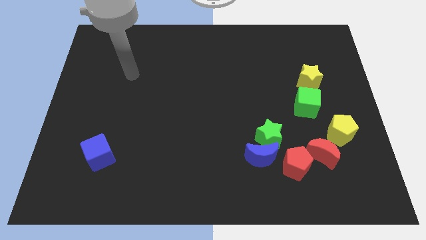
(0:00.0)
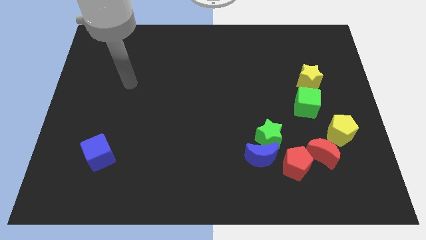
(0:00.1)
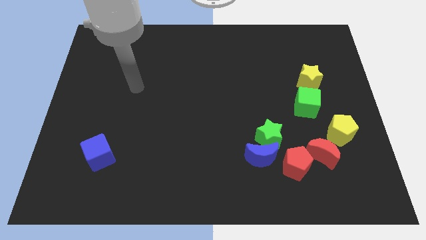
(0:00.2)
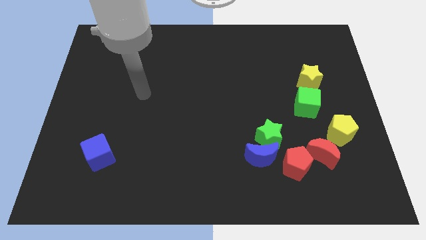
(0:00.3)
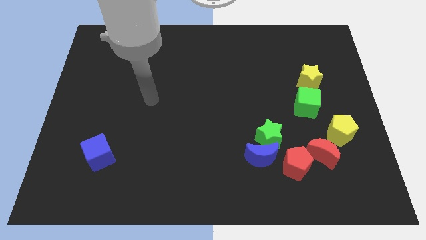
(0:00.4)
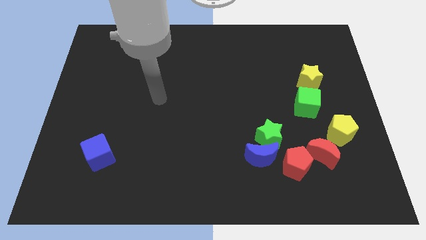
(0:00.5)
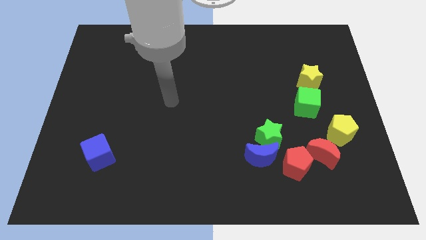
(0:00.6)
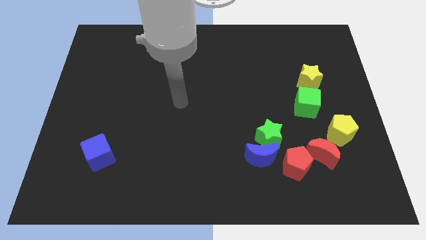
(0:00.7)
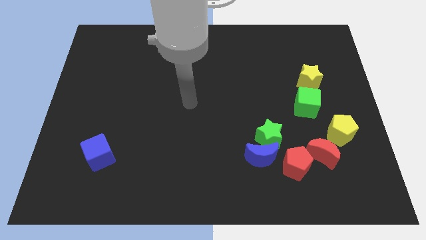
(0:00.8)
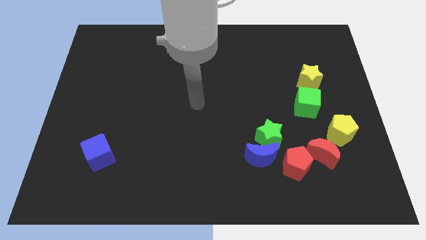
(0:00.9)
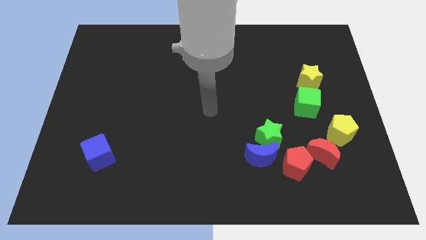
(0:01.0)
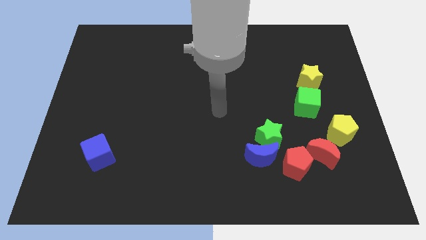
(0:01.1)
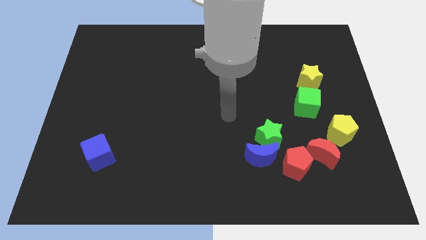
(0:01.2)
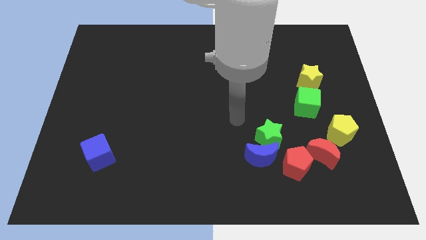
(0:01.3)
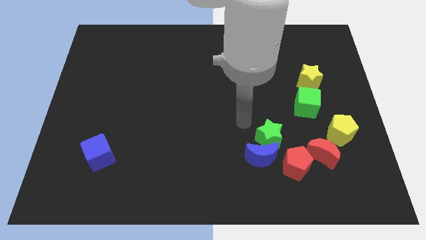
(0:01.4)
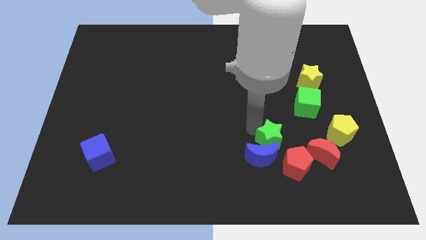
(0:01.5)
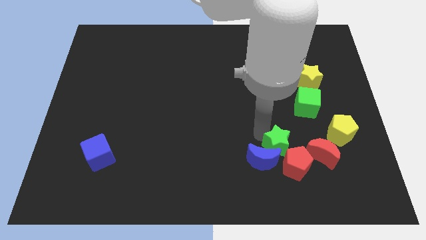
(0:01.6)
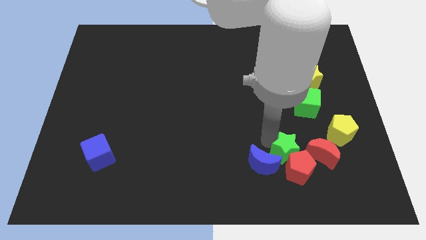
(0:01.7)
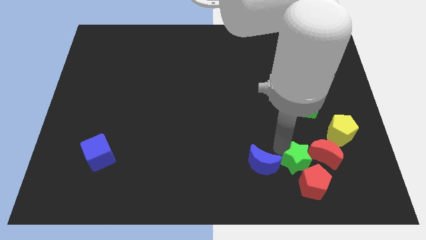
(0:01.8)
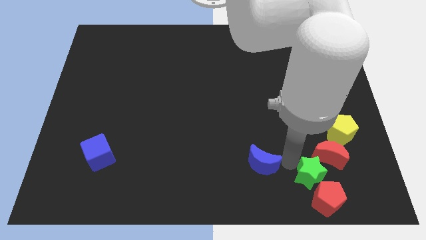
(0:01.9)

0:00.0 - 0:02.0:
move the blue moon away from the green star and red pentagon

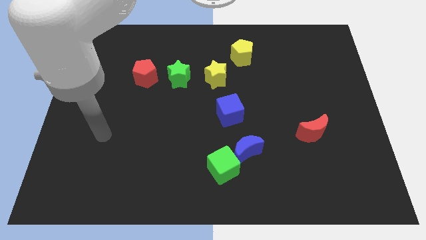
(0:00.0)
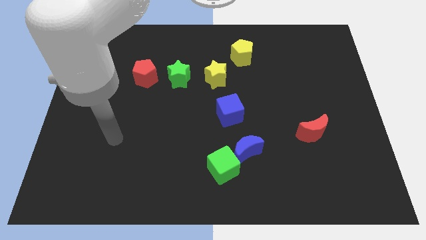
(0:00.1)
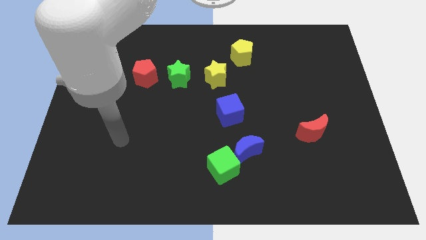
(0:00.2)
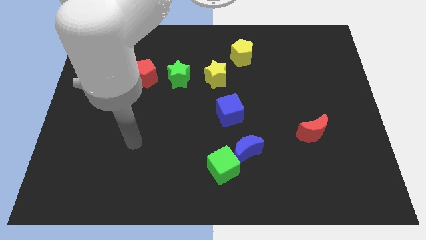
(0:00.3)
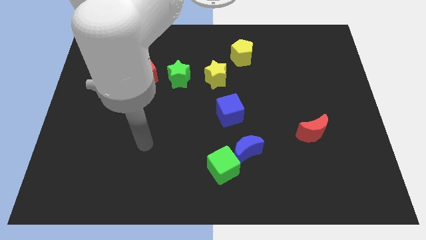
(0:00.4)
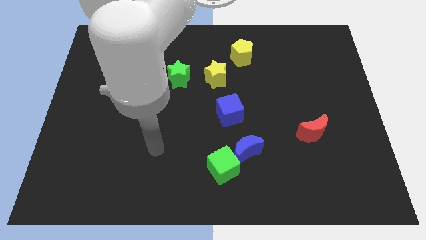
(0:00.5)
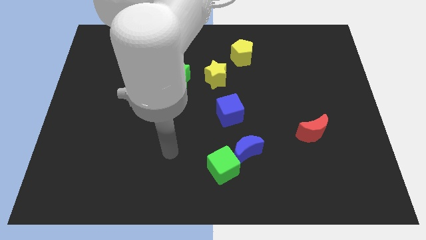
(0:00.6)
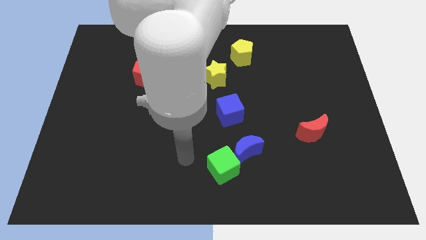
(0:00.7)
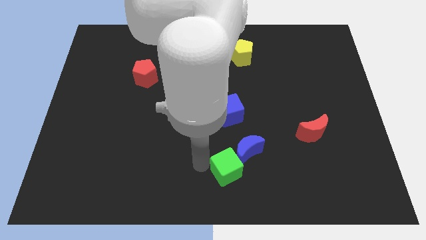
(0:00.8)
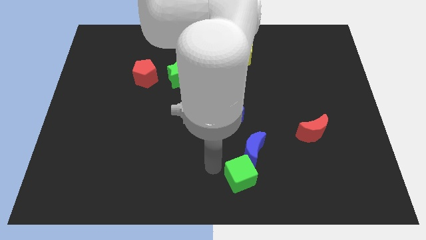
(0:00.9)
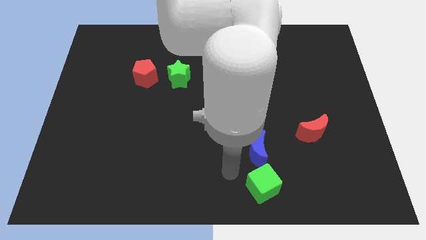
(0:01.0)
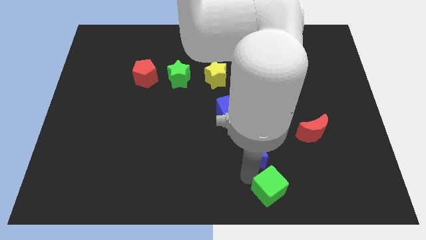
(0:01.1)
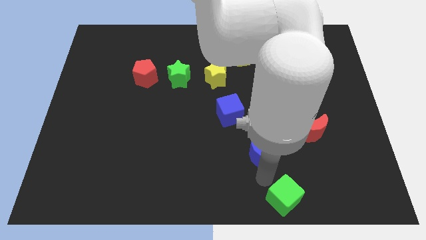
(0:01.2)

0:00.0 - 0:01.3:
separate the blue moon from the green cube

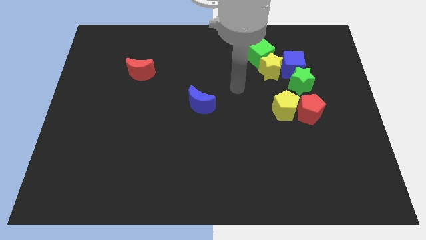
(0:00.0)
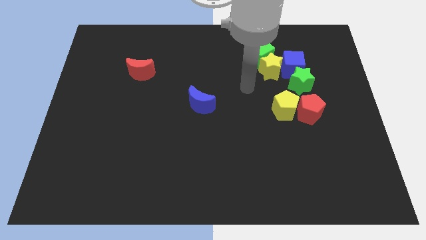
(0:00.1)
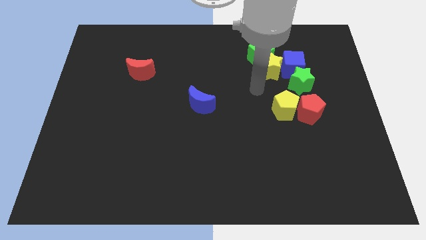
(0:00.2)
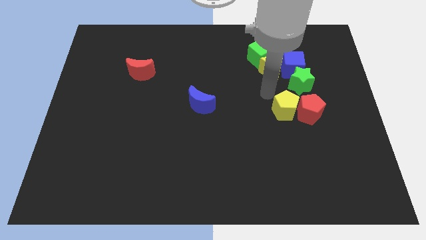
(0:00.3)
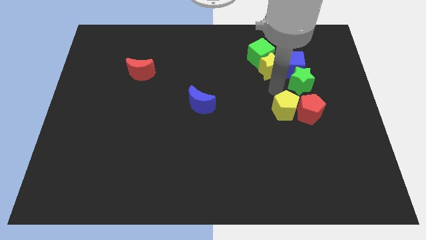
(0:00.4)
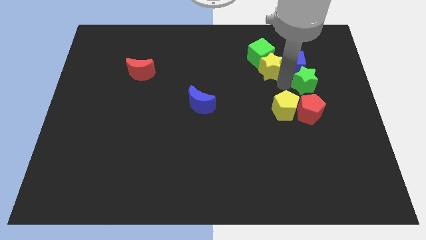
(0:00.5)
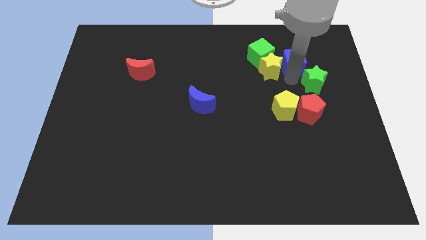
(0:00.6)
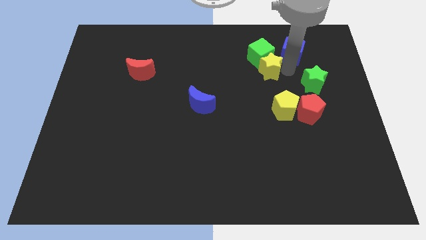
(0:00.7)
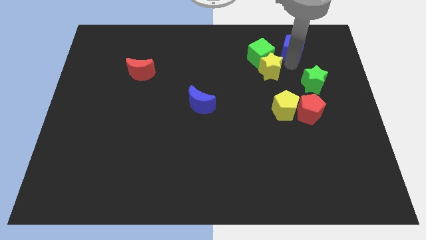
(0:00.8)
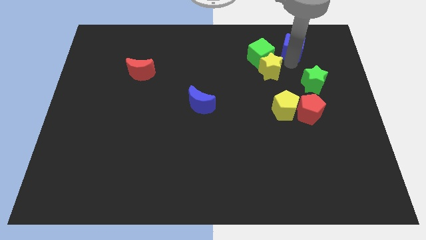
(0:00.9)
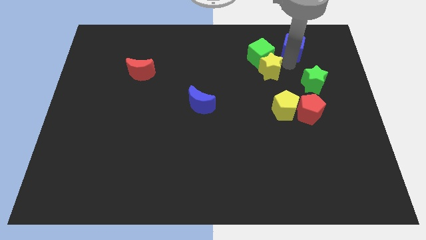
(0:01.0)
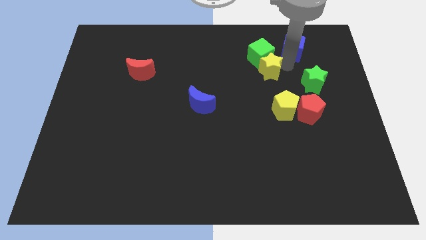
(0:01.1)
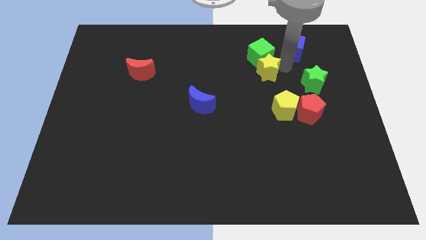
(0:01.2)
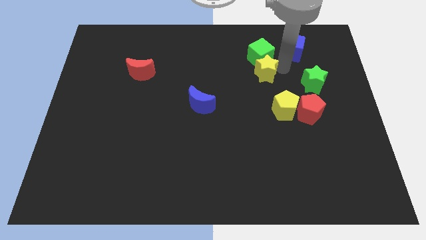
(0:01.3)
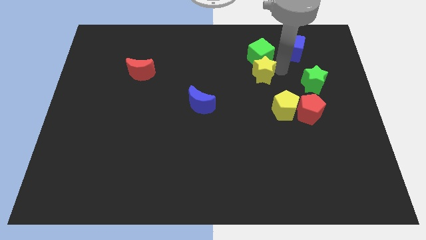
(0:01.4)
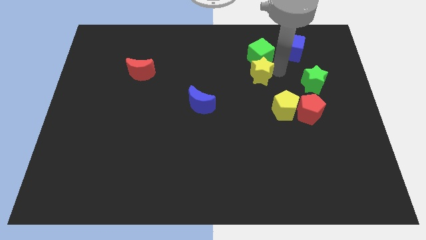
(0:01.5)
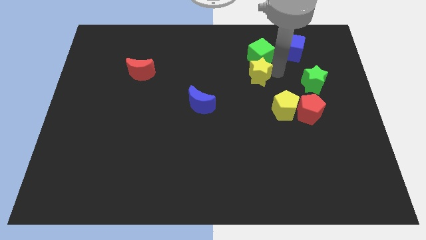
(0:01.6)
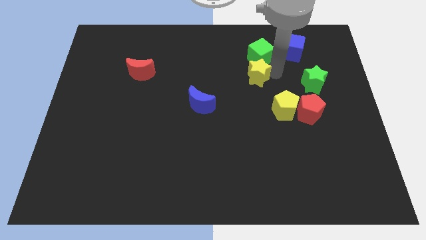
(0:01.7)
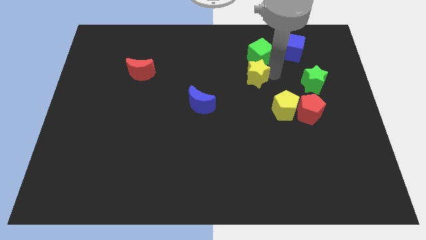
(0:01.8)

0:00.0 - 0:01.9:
separate the yellow star from the group

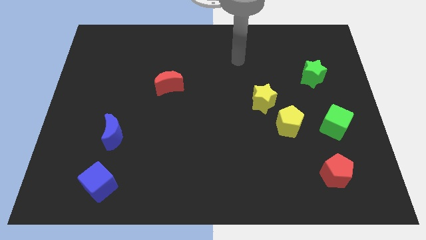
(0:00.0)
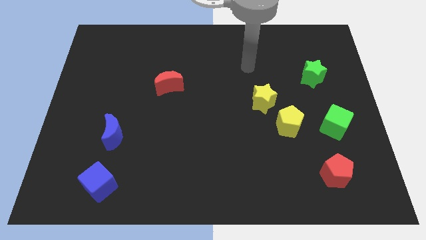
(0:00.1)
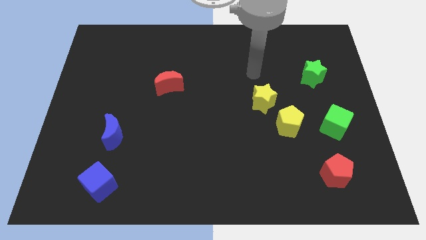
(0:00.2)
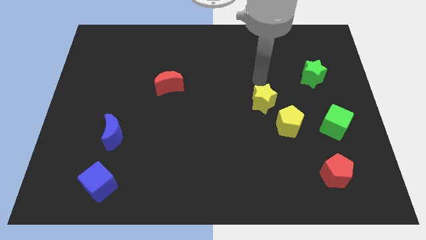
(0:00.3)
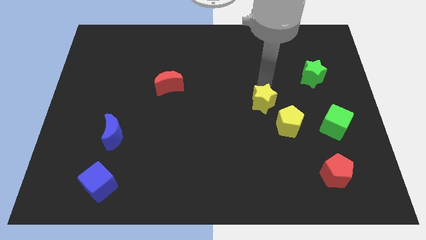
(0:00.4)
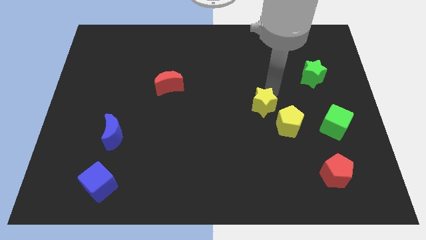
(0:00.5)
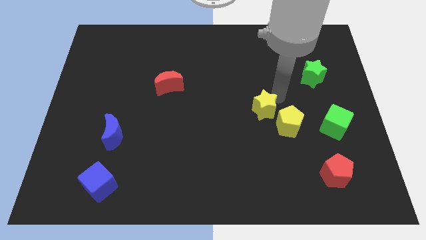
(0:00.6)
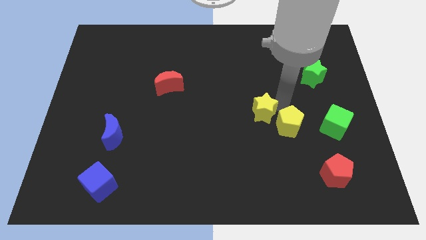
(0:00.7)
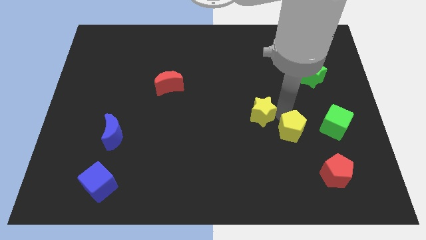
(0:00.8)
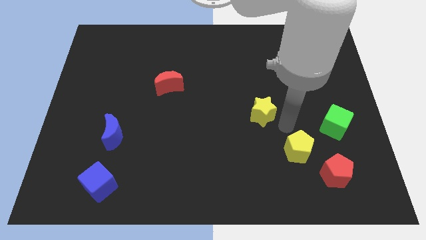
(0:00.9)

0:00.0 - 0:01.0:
move the yellow star away from the yellow pentagon

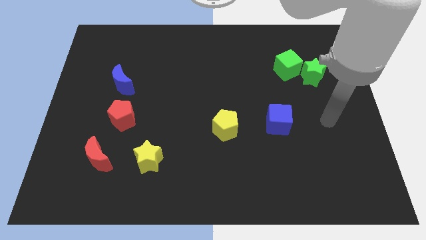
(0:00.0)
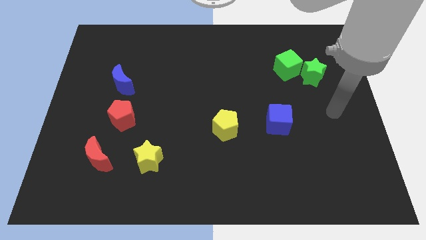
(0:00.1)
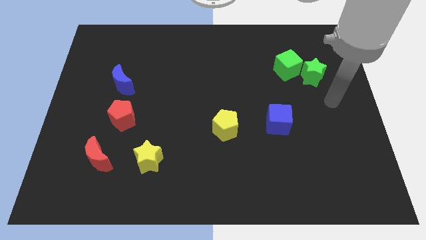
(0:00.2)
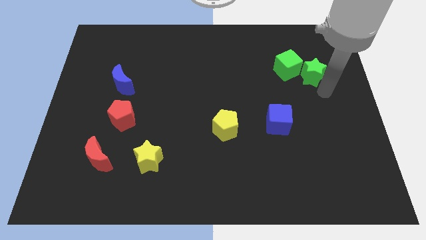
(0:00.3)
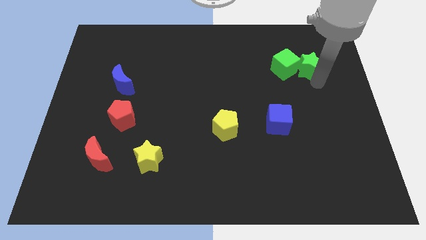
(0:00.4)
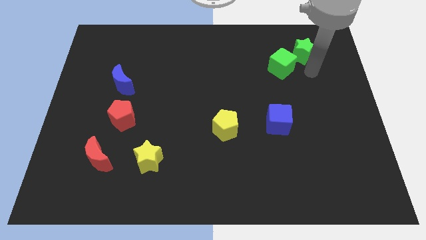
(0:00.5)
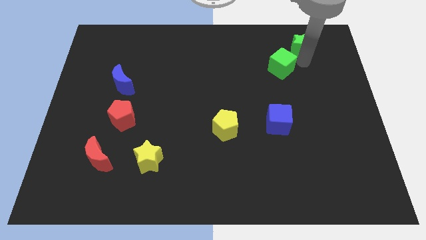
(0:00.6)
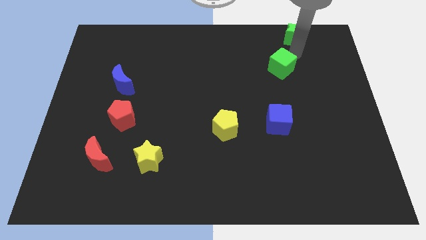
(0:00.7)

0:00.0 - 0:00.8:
pull the green cube apart from the green star

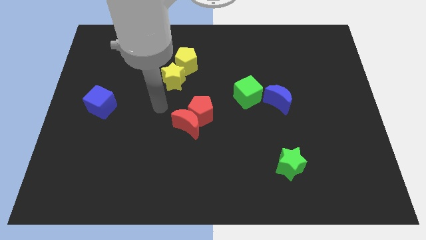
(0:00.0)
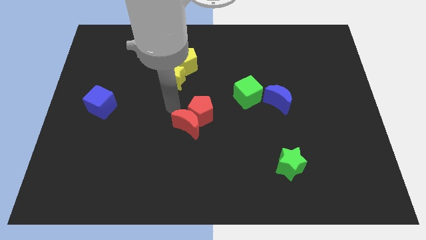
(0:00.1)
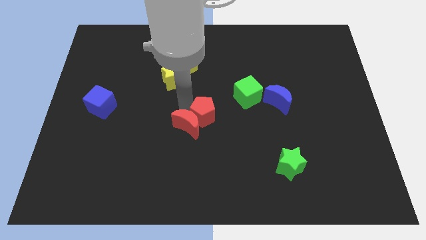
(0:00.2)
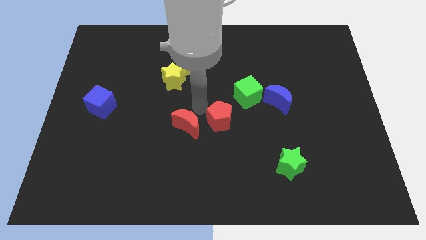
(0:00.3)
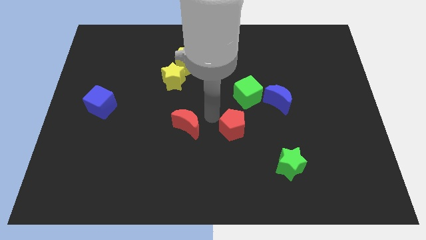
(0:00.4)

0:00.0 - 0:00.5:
move the red moon away from the red pentagon

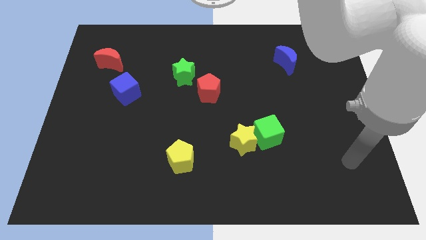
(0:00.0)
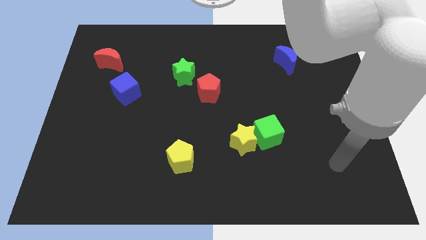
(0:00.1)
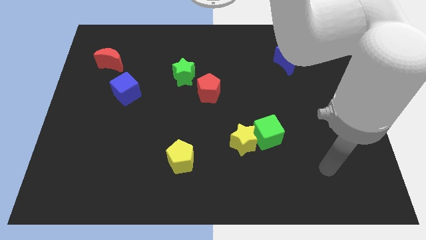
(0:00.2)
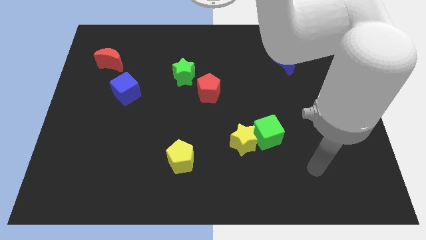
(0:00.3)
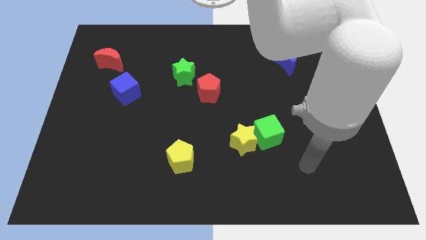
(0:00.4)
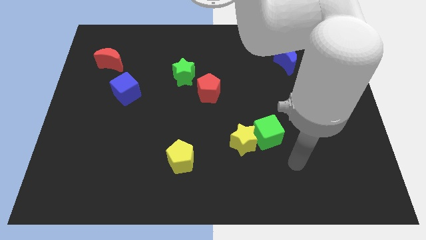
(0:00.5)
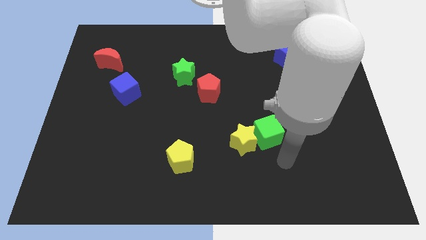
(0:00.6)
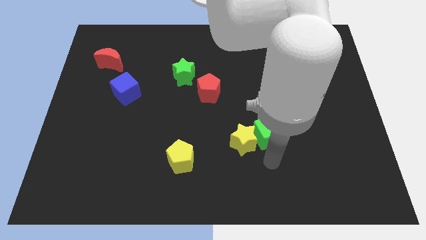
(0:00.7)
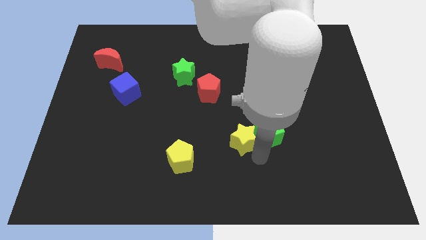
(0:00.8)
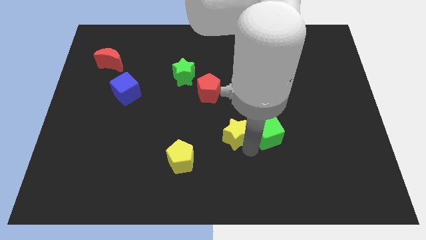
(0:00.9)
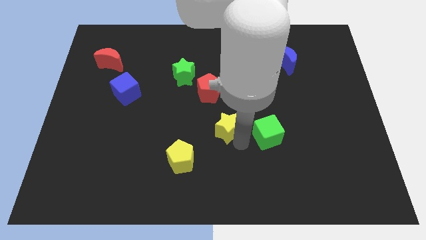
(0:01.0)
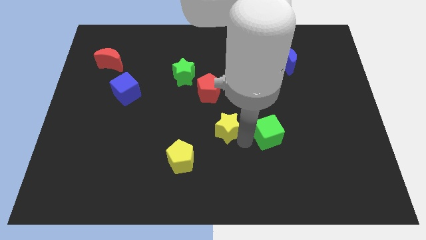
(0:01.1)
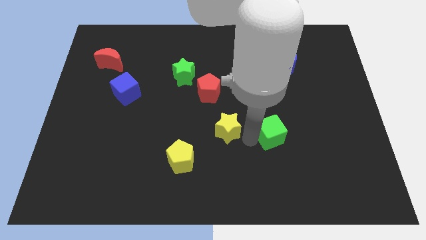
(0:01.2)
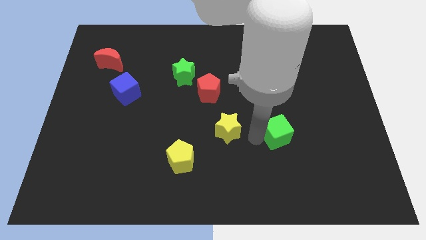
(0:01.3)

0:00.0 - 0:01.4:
move the green cube away from the yellow star

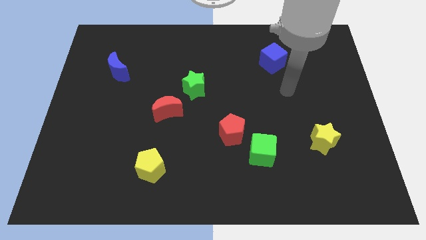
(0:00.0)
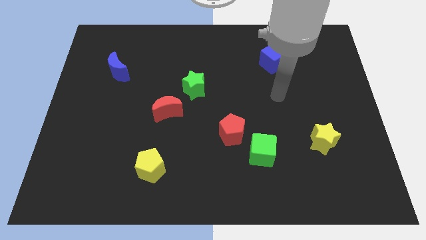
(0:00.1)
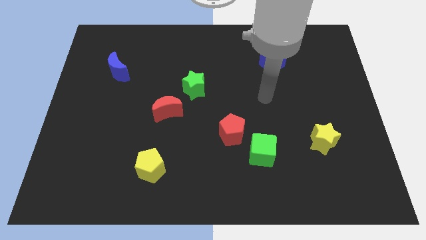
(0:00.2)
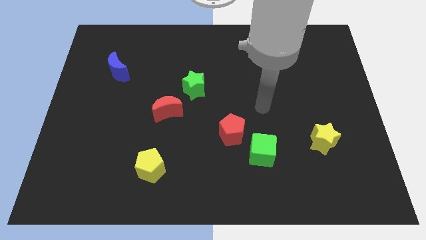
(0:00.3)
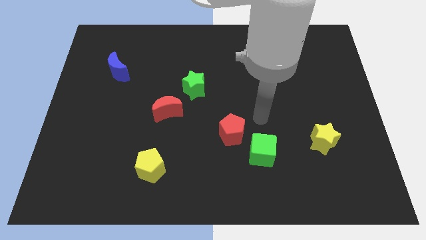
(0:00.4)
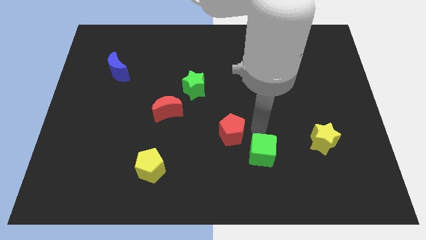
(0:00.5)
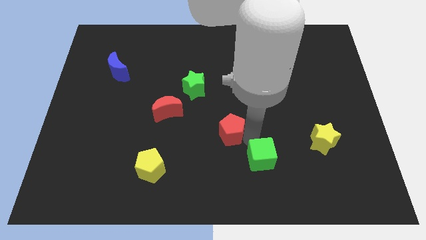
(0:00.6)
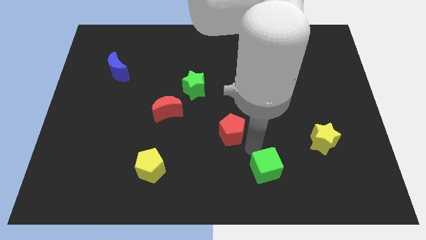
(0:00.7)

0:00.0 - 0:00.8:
pull the red pentagon apart from the green cube
